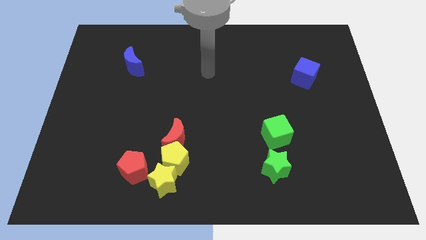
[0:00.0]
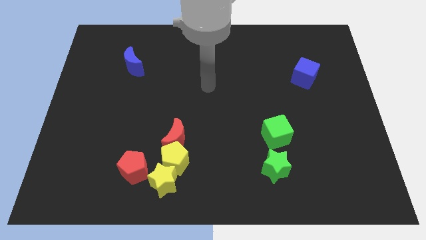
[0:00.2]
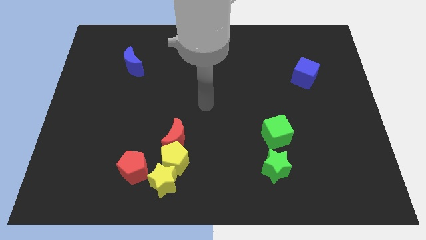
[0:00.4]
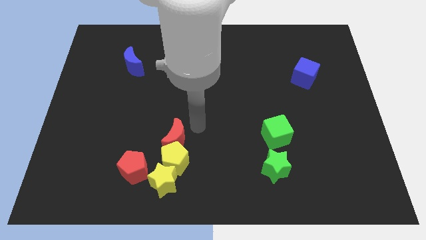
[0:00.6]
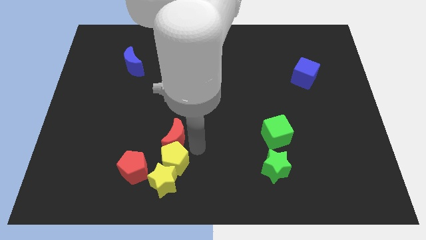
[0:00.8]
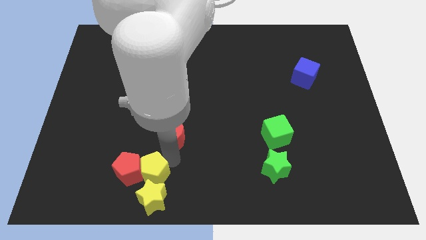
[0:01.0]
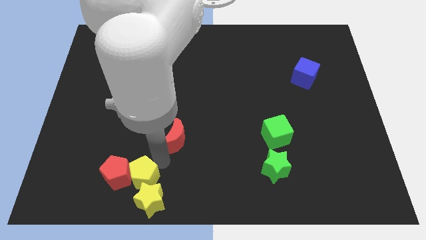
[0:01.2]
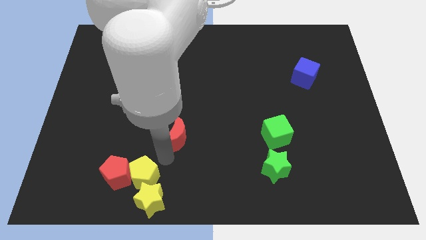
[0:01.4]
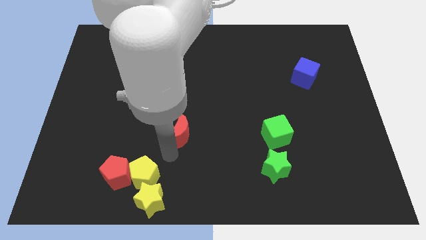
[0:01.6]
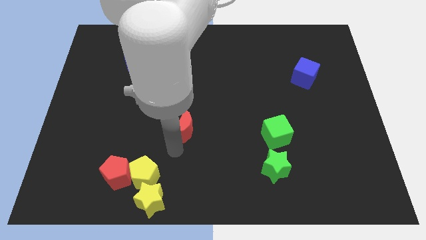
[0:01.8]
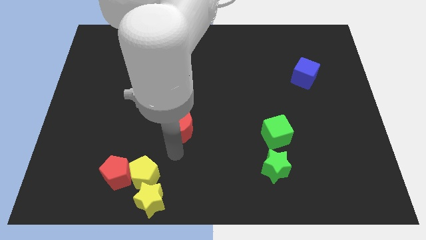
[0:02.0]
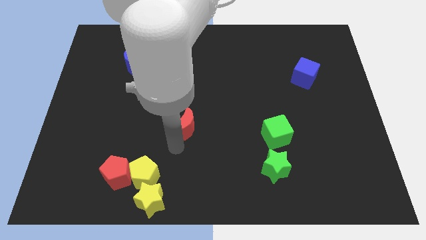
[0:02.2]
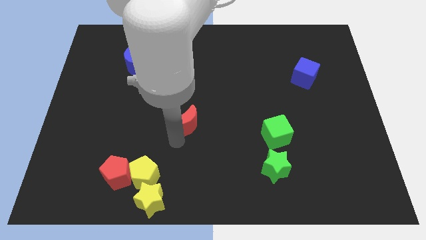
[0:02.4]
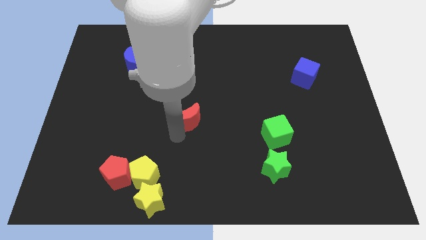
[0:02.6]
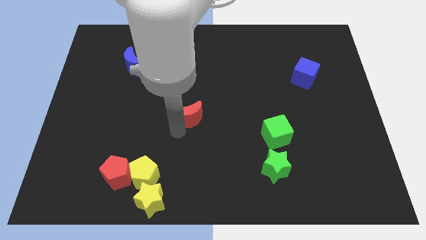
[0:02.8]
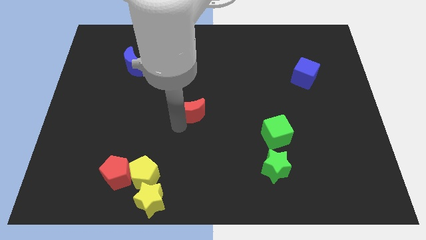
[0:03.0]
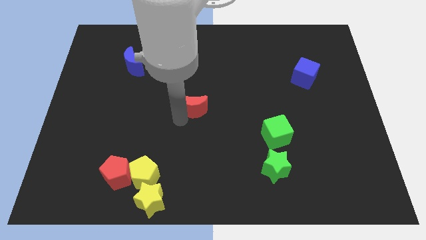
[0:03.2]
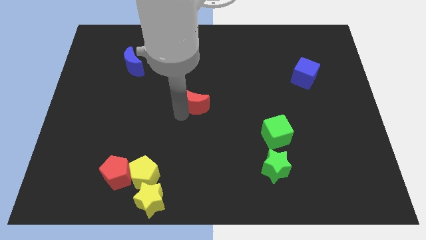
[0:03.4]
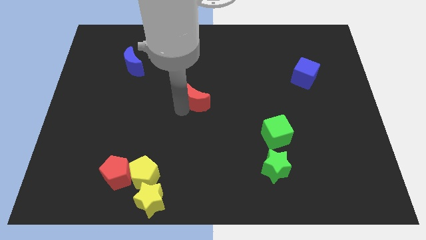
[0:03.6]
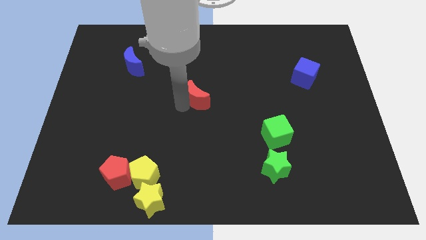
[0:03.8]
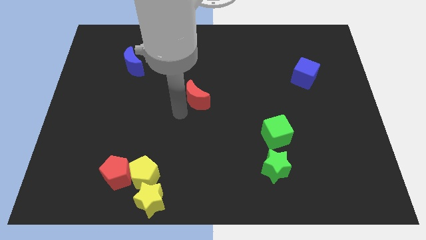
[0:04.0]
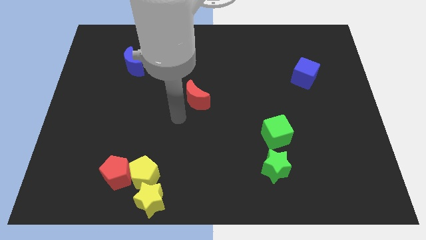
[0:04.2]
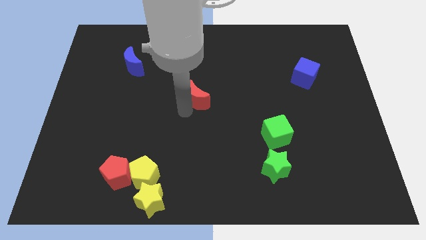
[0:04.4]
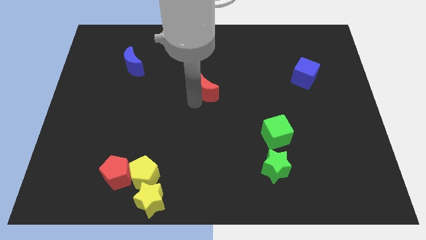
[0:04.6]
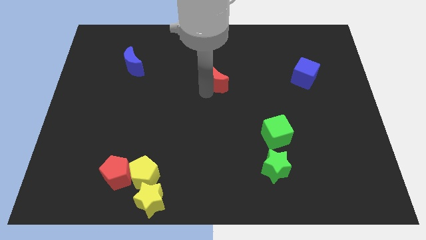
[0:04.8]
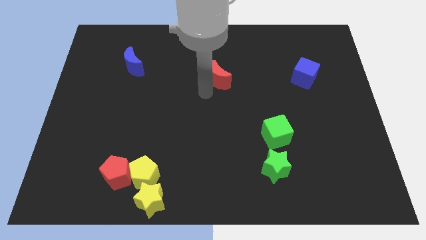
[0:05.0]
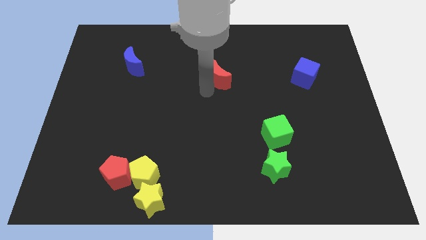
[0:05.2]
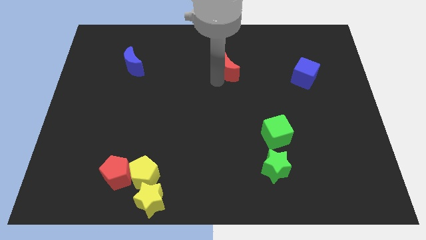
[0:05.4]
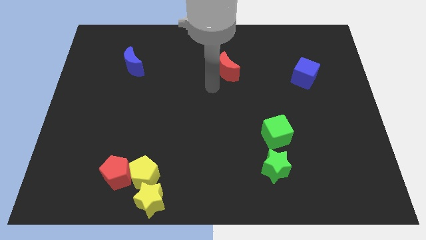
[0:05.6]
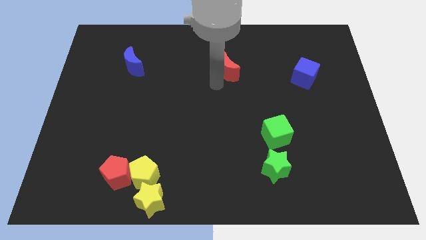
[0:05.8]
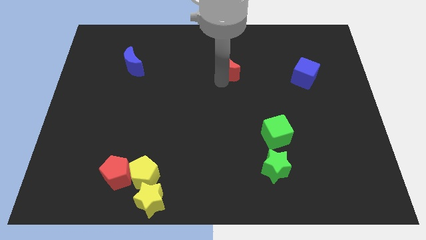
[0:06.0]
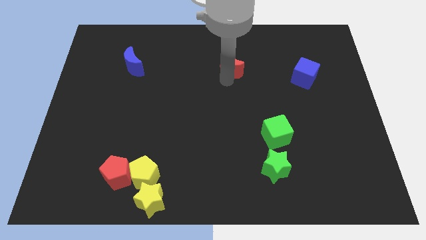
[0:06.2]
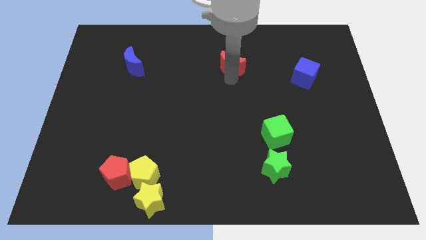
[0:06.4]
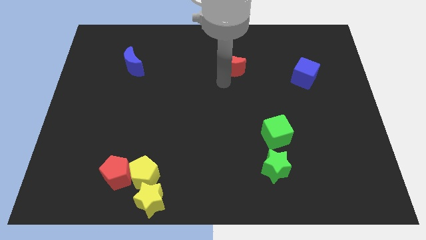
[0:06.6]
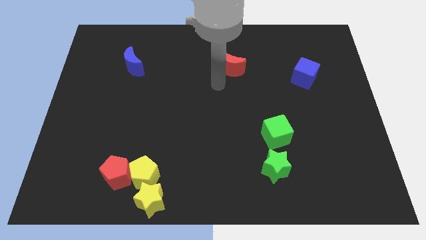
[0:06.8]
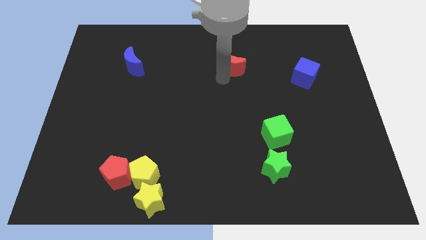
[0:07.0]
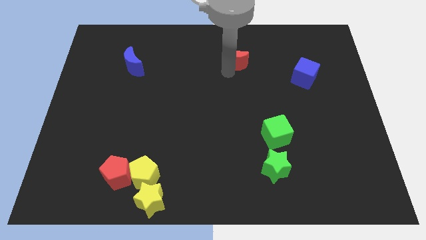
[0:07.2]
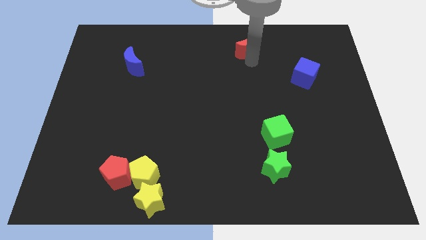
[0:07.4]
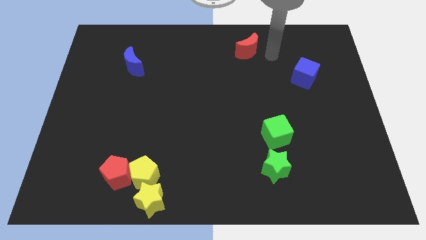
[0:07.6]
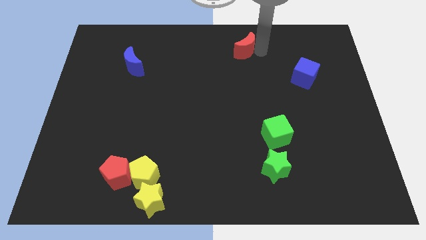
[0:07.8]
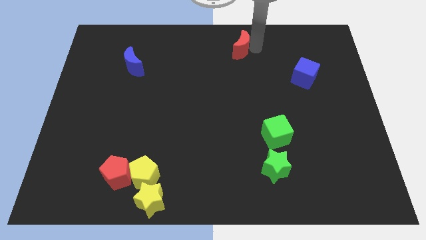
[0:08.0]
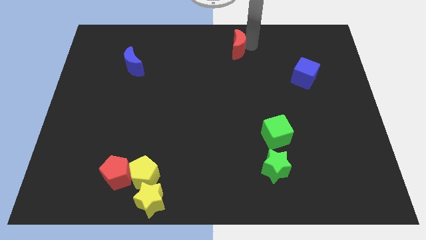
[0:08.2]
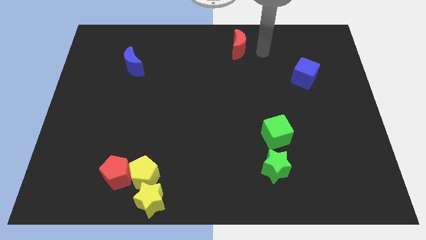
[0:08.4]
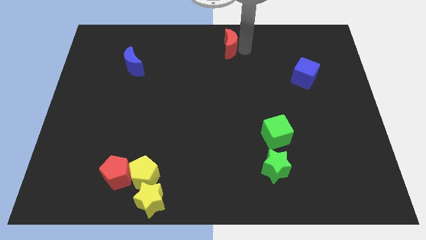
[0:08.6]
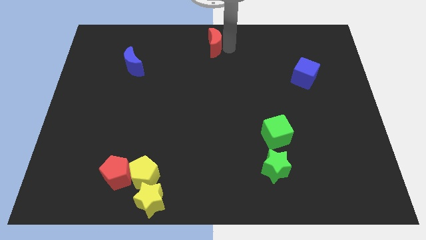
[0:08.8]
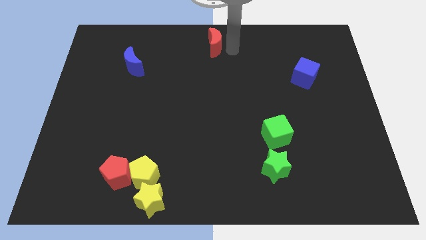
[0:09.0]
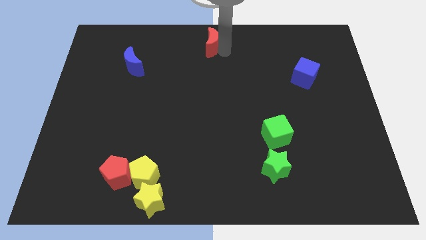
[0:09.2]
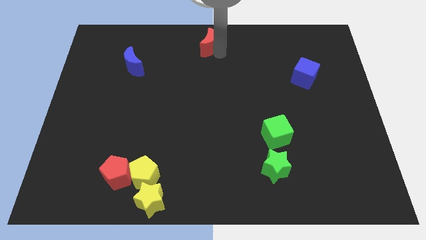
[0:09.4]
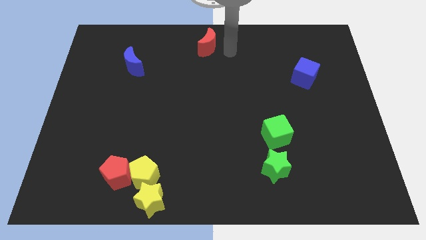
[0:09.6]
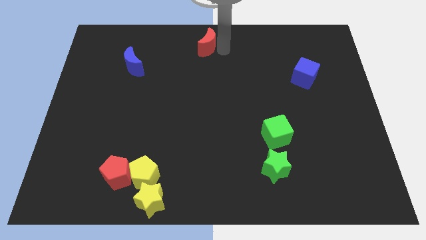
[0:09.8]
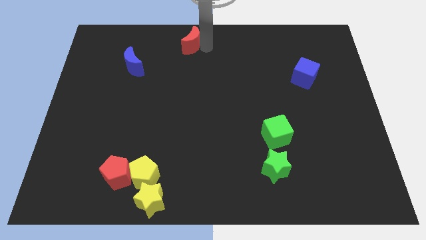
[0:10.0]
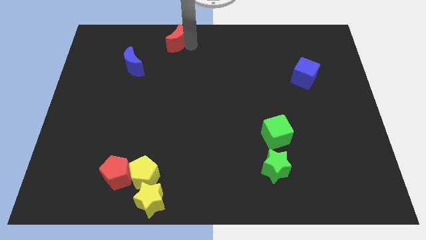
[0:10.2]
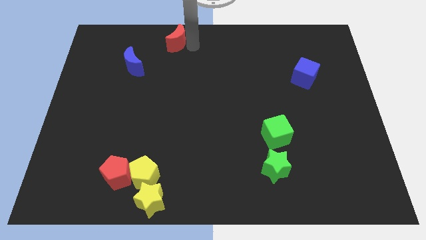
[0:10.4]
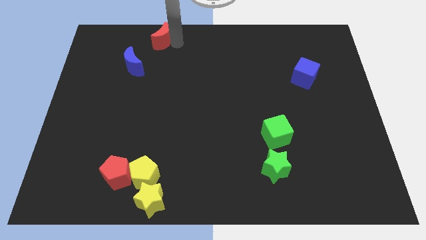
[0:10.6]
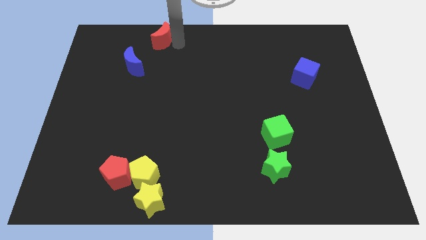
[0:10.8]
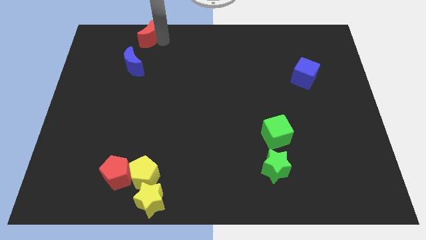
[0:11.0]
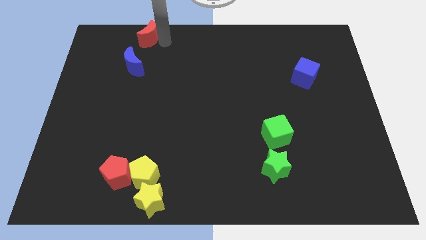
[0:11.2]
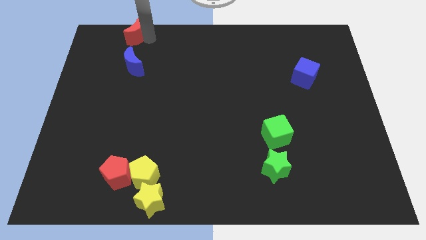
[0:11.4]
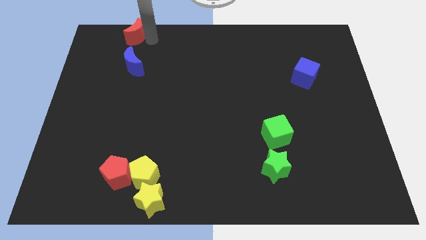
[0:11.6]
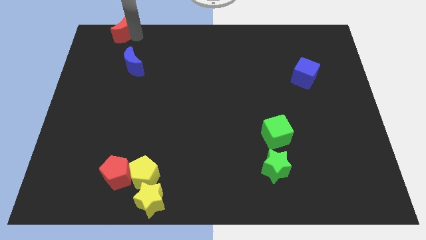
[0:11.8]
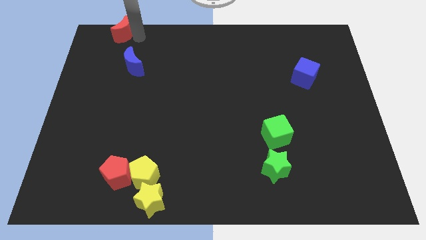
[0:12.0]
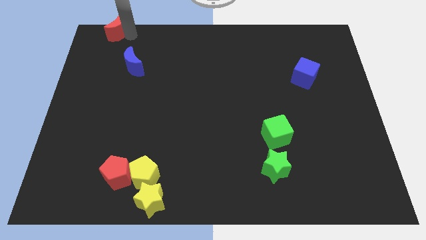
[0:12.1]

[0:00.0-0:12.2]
put the red moon to the upper left corner
